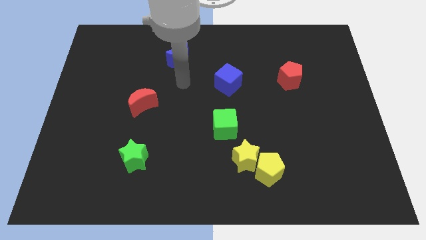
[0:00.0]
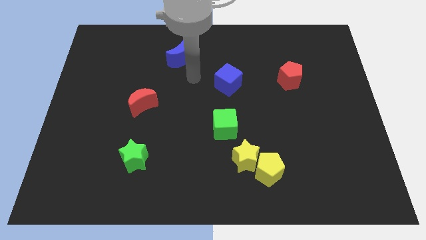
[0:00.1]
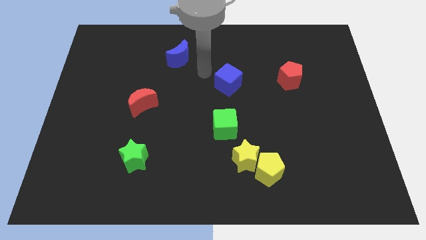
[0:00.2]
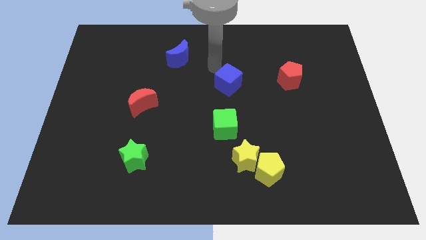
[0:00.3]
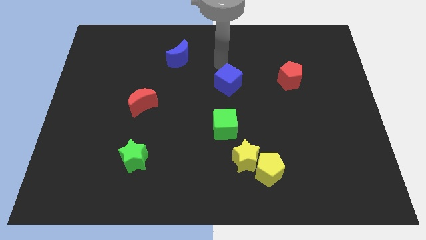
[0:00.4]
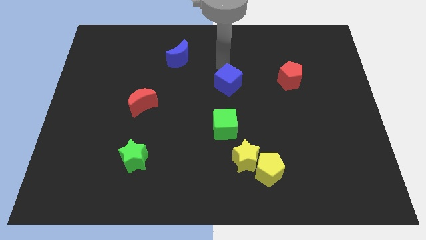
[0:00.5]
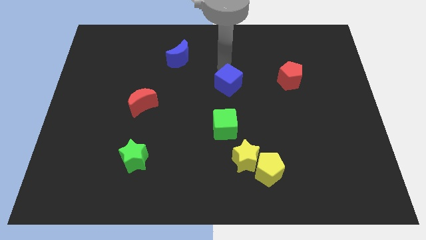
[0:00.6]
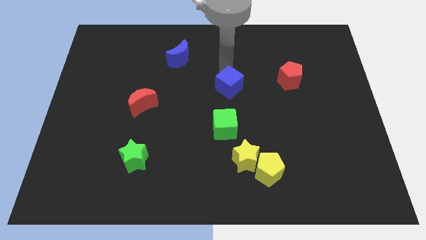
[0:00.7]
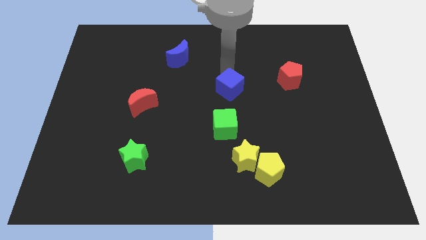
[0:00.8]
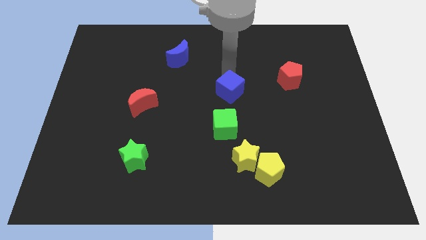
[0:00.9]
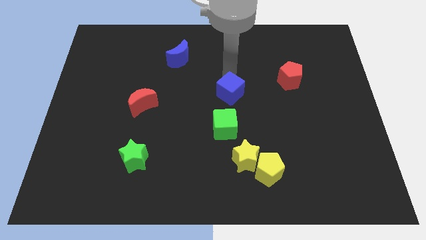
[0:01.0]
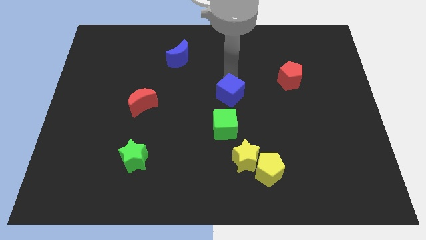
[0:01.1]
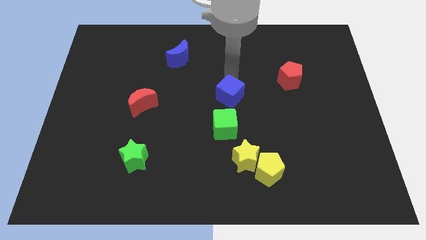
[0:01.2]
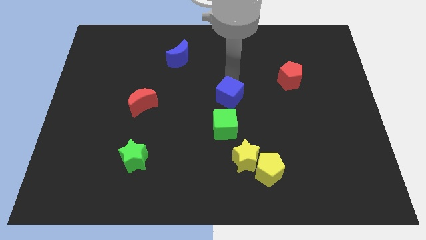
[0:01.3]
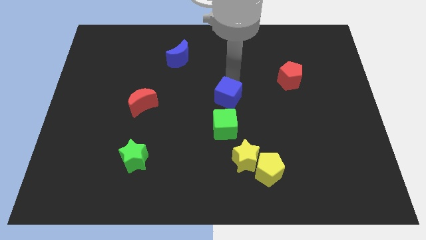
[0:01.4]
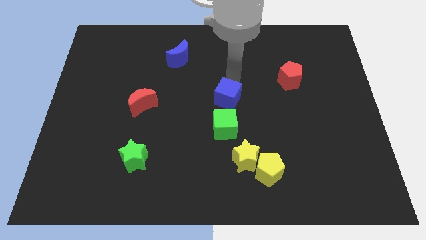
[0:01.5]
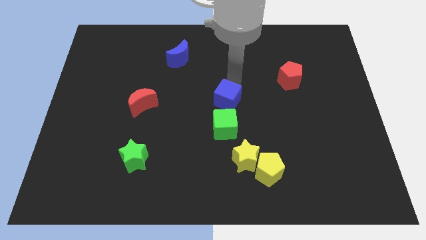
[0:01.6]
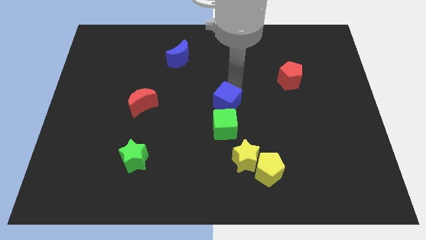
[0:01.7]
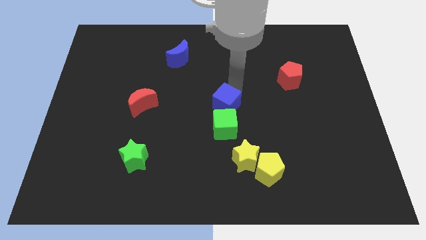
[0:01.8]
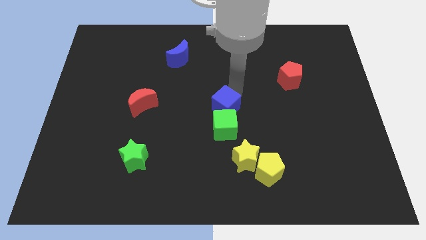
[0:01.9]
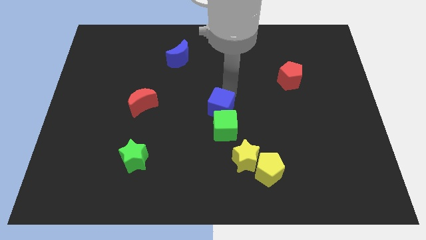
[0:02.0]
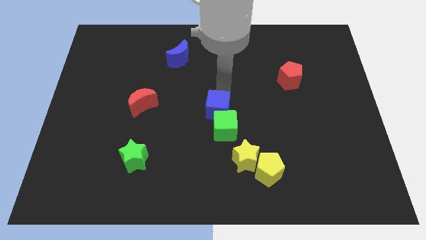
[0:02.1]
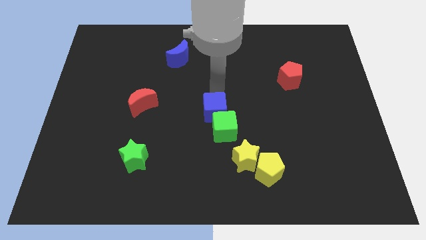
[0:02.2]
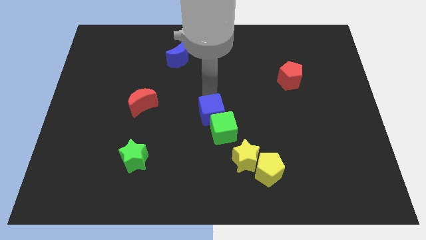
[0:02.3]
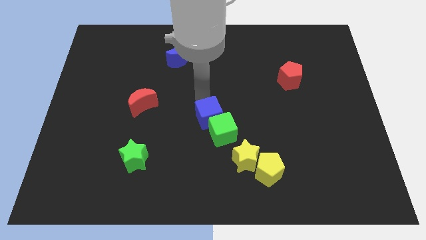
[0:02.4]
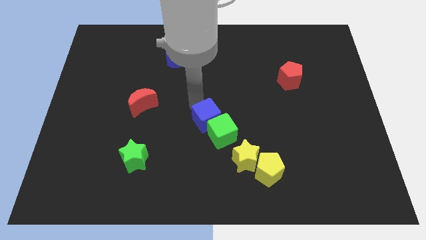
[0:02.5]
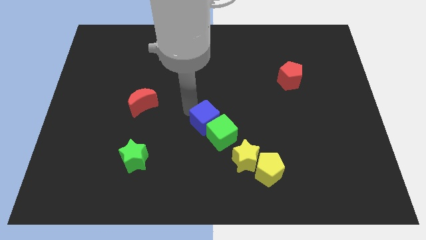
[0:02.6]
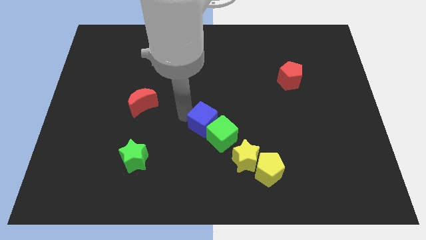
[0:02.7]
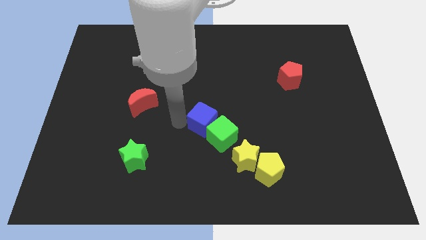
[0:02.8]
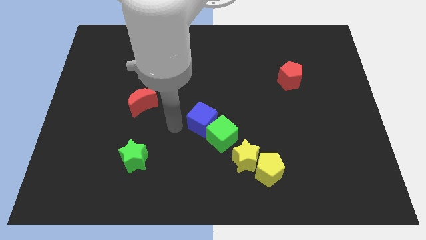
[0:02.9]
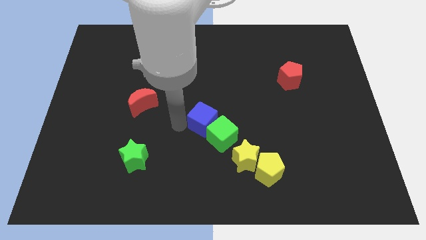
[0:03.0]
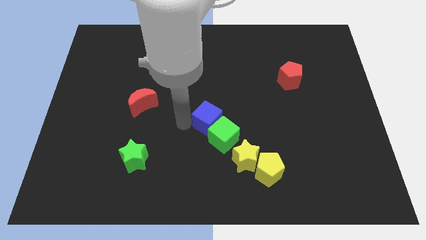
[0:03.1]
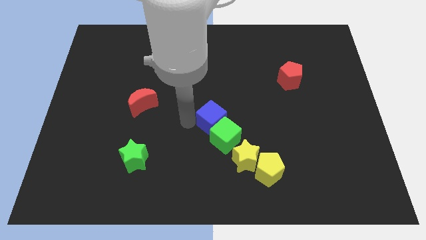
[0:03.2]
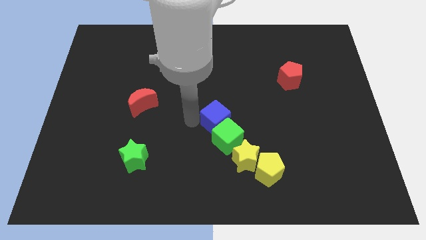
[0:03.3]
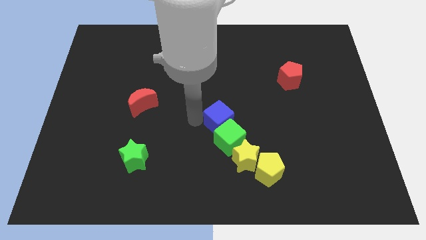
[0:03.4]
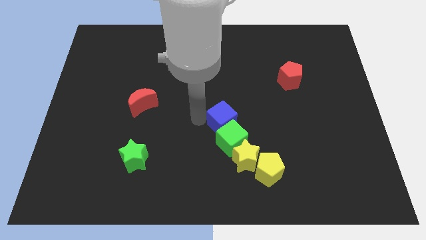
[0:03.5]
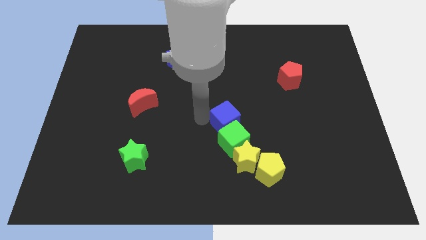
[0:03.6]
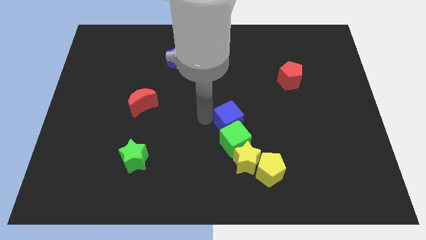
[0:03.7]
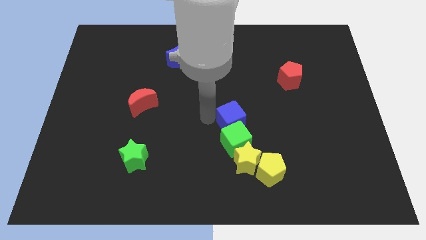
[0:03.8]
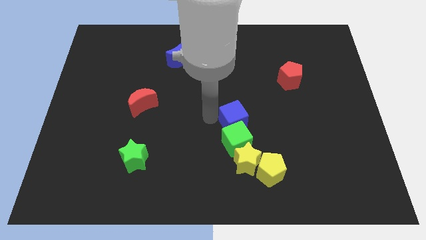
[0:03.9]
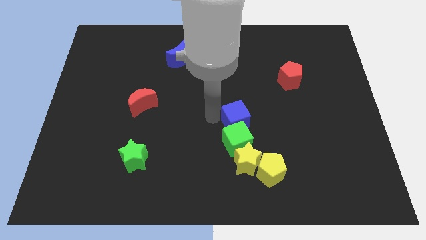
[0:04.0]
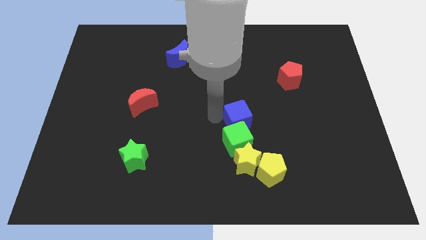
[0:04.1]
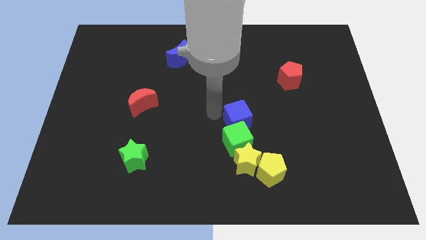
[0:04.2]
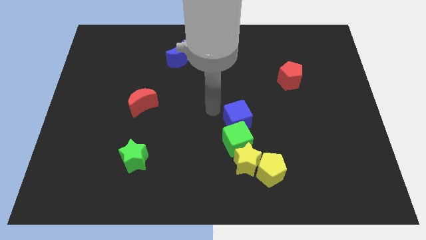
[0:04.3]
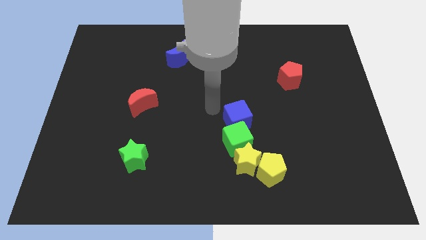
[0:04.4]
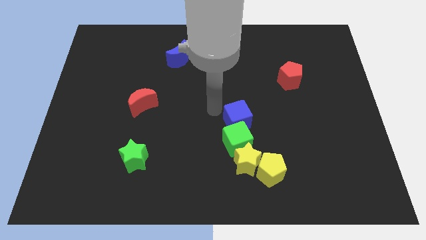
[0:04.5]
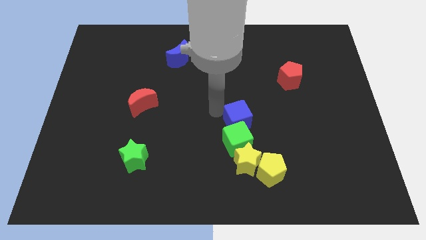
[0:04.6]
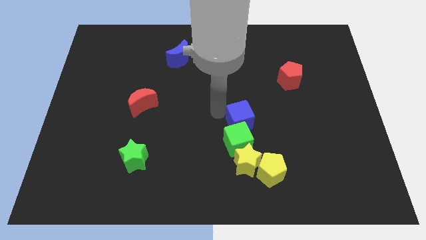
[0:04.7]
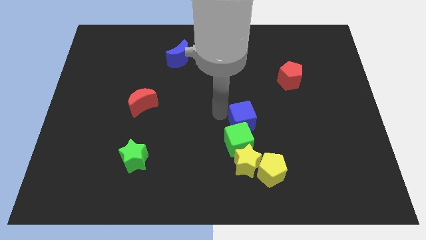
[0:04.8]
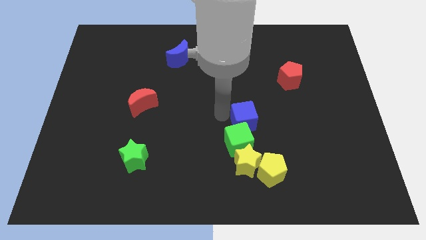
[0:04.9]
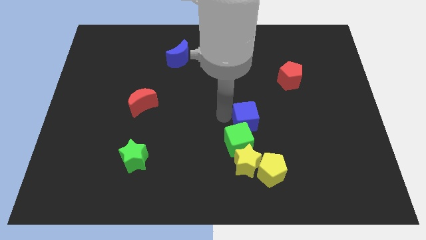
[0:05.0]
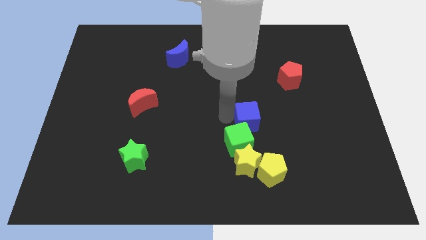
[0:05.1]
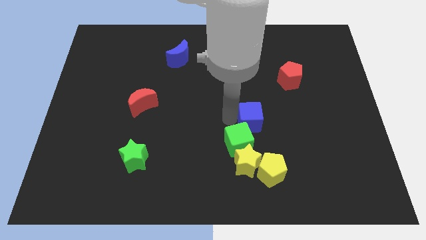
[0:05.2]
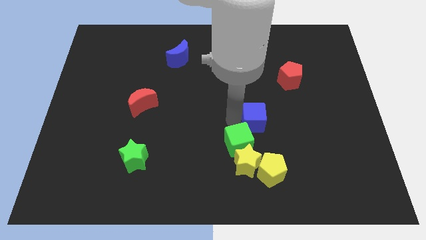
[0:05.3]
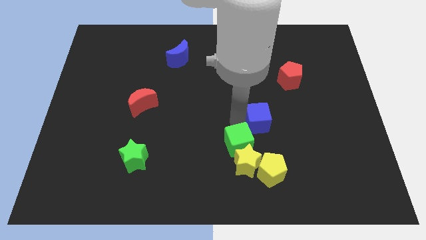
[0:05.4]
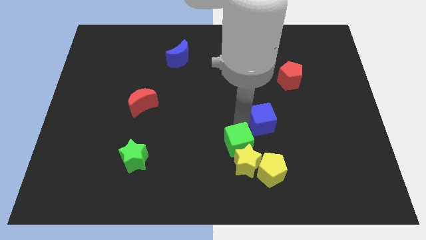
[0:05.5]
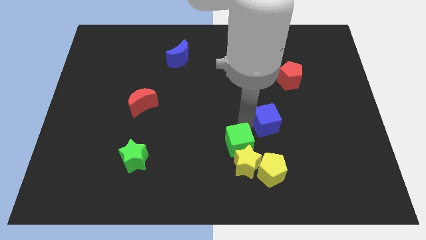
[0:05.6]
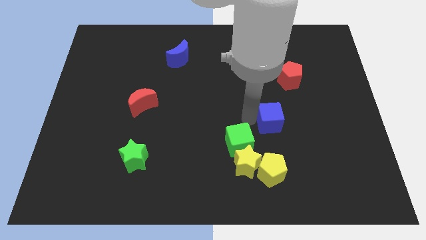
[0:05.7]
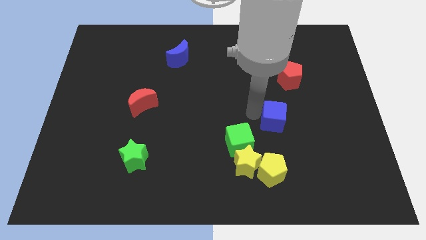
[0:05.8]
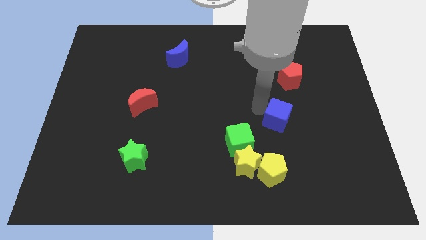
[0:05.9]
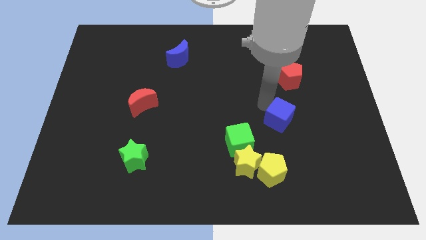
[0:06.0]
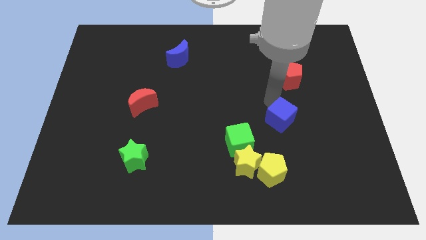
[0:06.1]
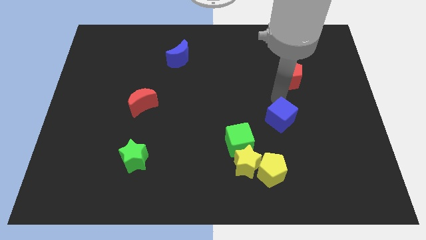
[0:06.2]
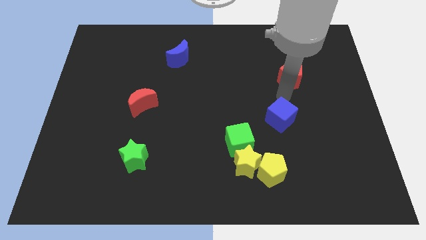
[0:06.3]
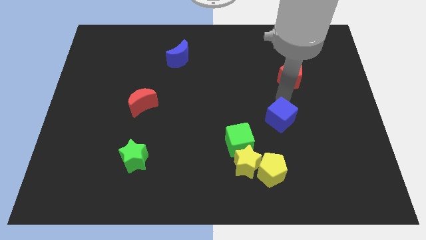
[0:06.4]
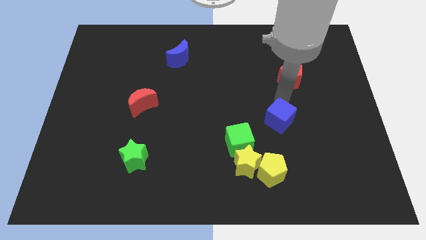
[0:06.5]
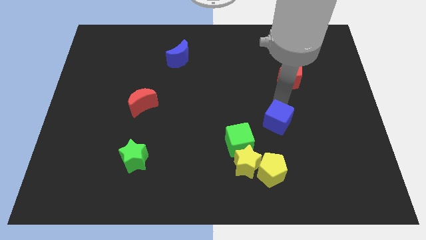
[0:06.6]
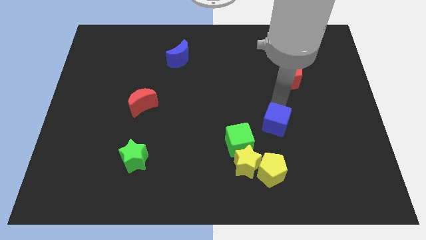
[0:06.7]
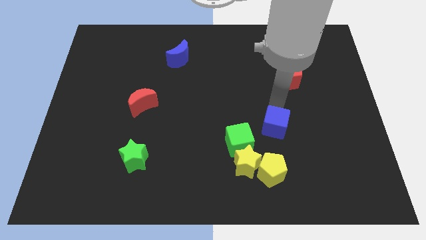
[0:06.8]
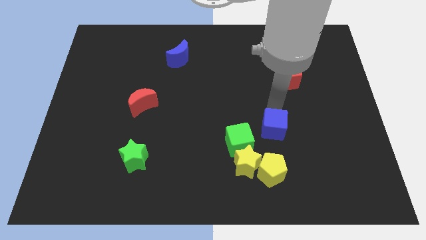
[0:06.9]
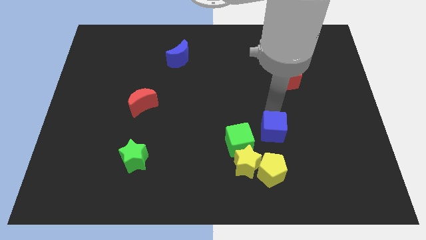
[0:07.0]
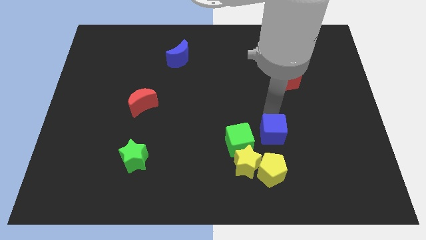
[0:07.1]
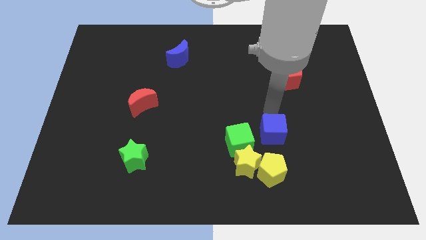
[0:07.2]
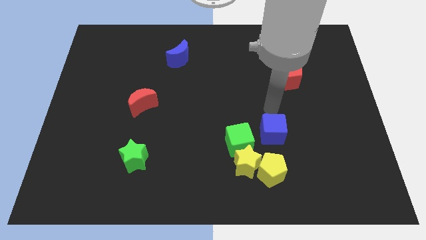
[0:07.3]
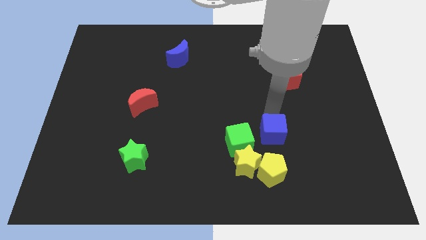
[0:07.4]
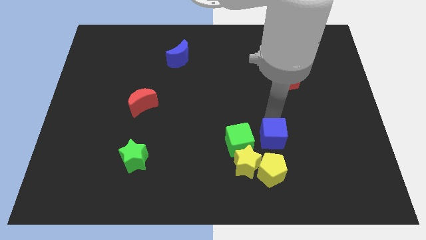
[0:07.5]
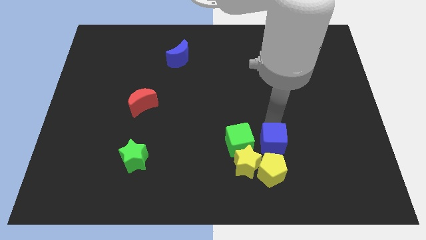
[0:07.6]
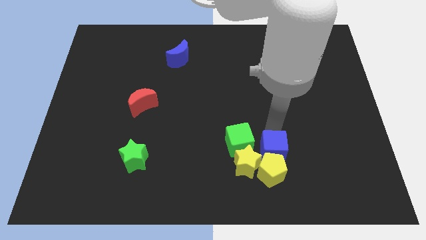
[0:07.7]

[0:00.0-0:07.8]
slide the blue cube to the yellow pentagon
